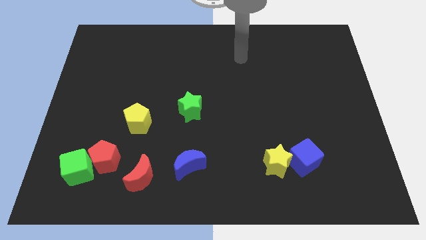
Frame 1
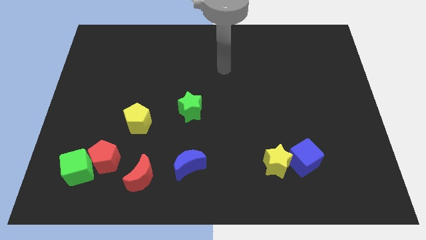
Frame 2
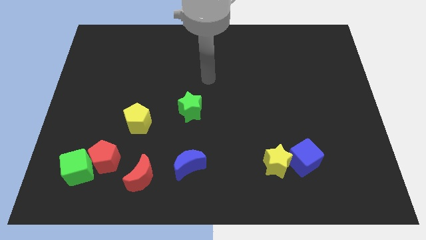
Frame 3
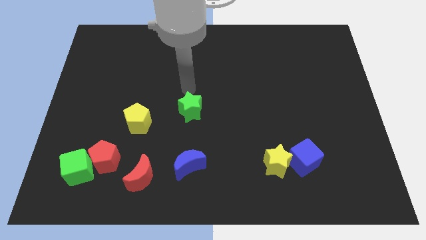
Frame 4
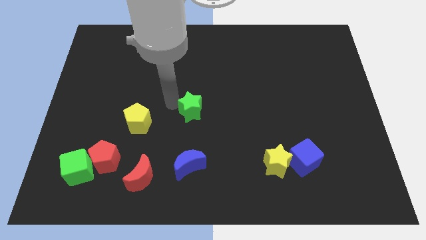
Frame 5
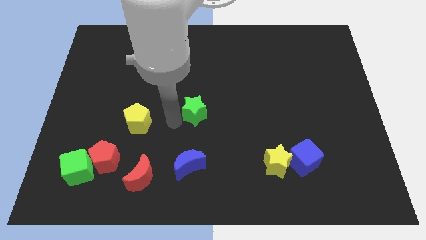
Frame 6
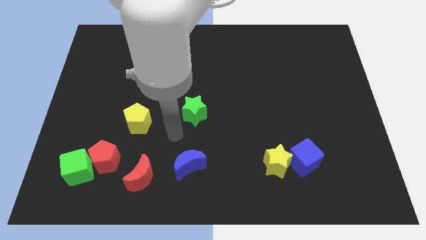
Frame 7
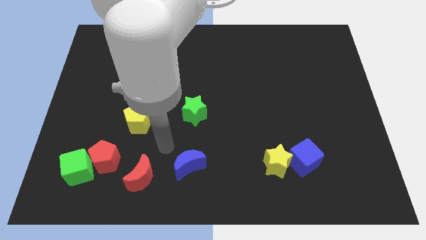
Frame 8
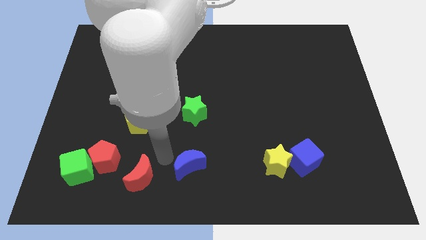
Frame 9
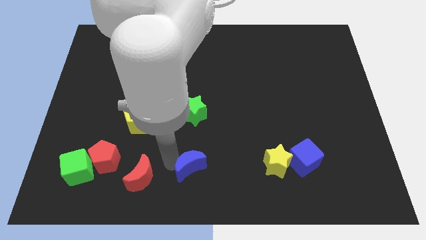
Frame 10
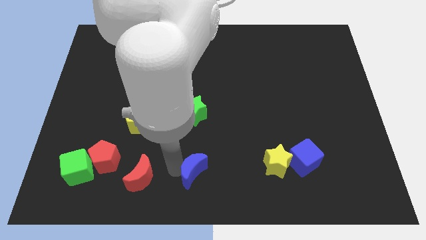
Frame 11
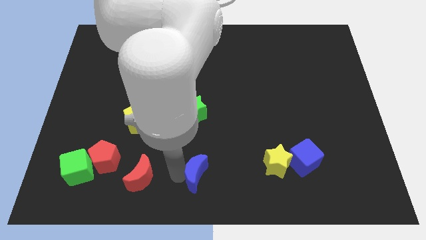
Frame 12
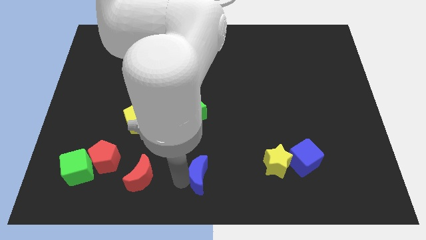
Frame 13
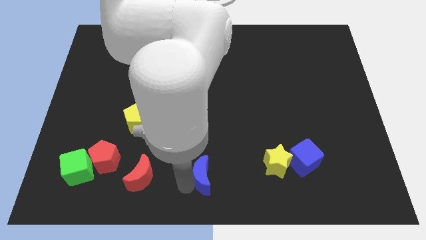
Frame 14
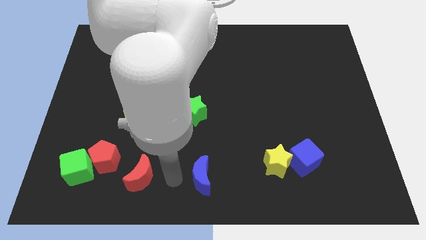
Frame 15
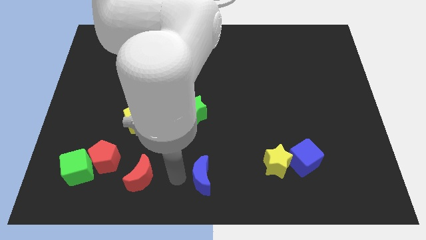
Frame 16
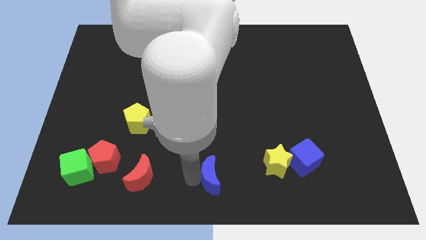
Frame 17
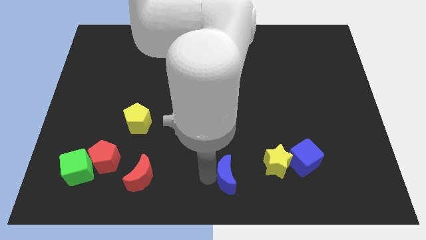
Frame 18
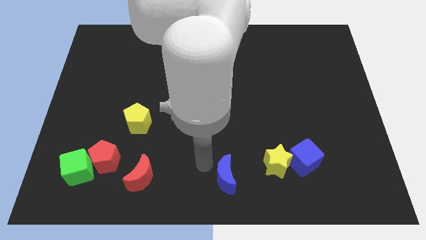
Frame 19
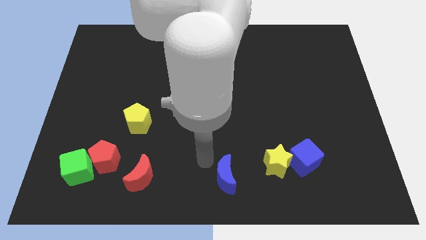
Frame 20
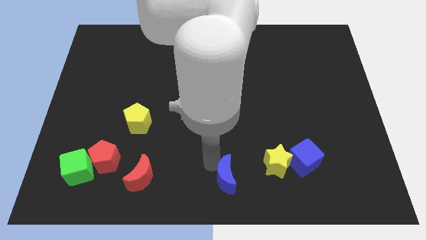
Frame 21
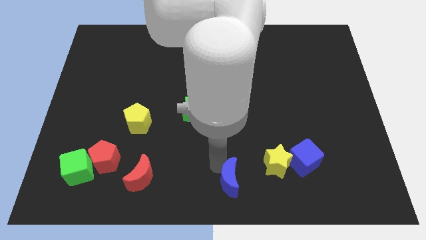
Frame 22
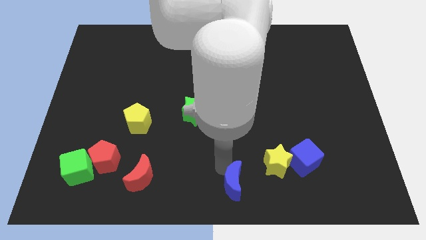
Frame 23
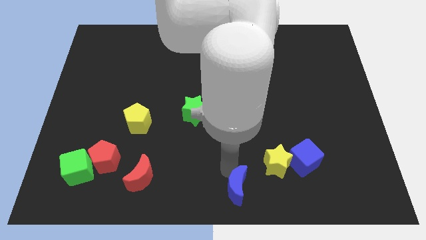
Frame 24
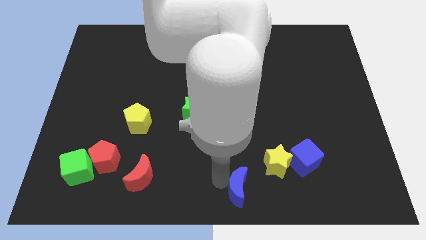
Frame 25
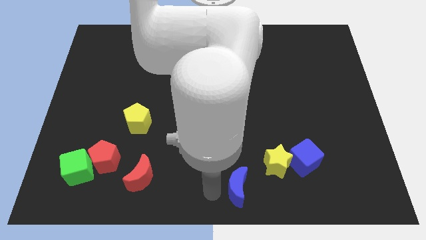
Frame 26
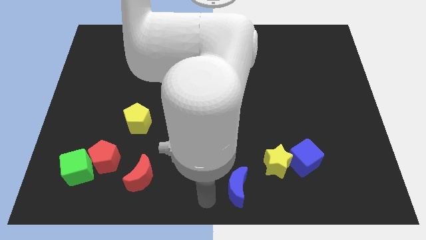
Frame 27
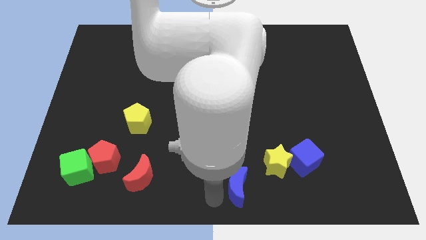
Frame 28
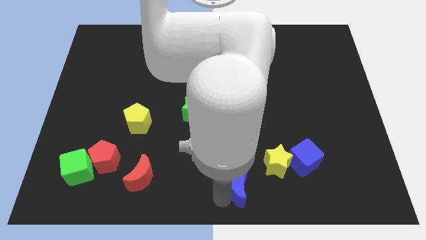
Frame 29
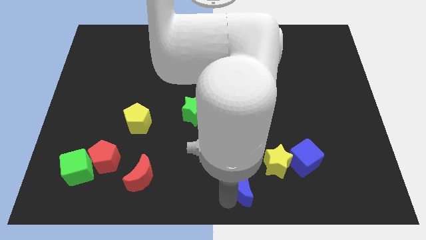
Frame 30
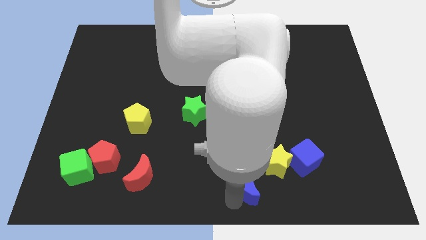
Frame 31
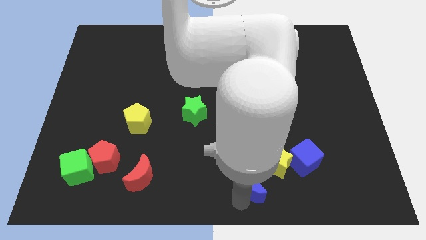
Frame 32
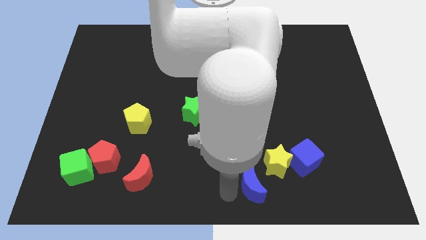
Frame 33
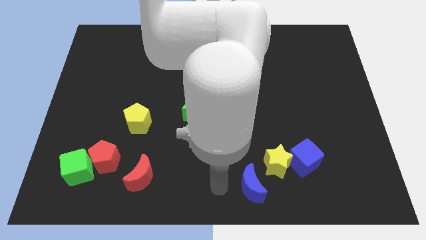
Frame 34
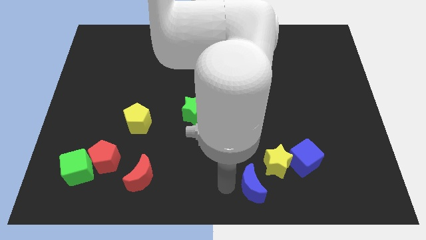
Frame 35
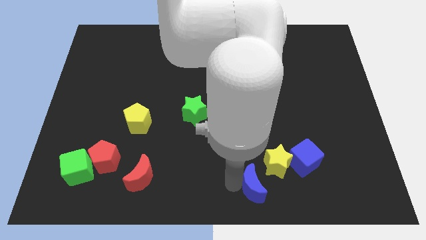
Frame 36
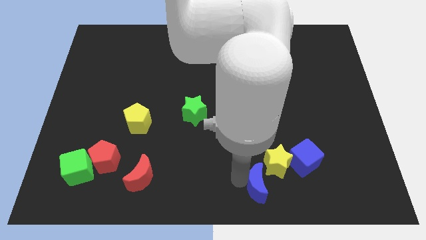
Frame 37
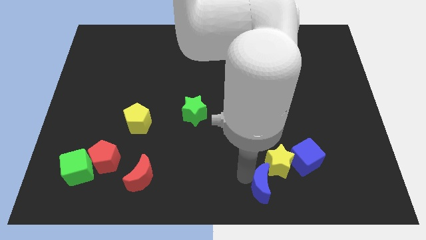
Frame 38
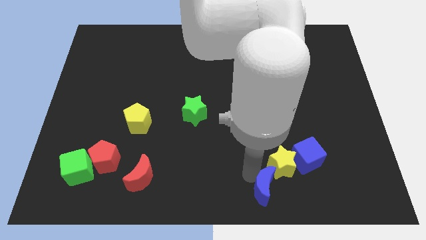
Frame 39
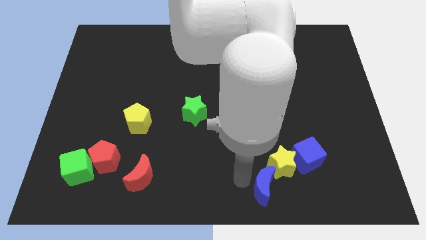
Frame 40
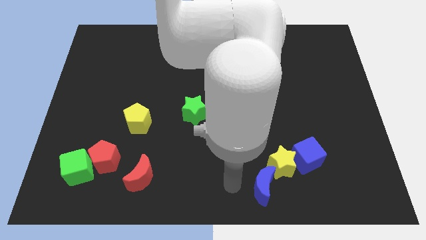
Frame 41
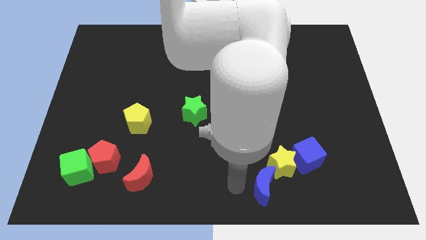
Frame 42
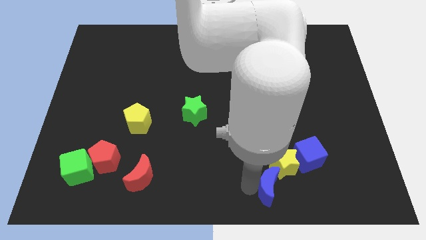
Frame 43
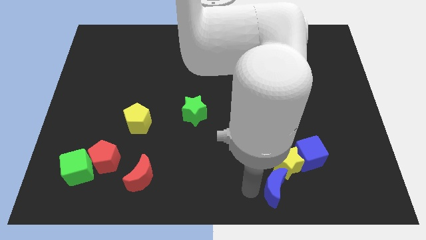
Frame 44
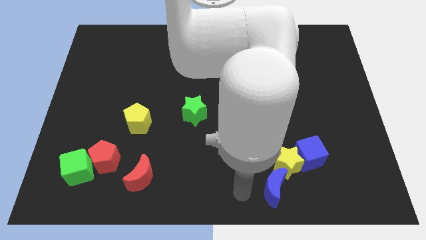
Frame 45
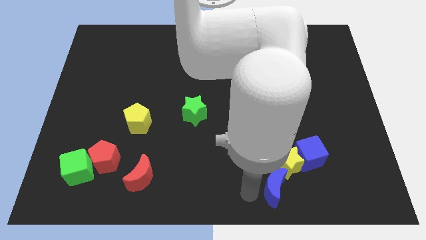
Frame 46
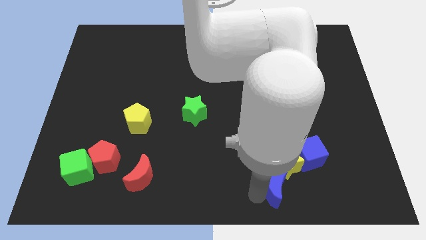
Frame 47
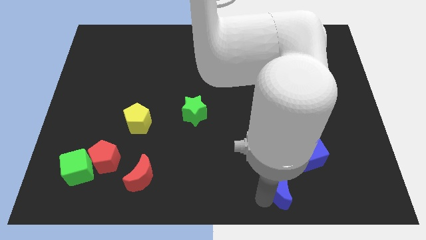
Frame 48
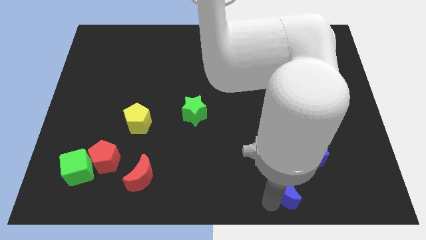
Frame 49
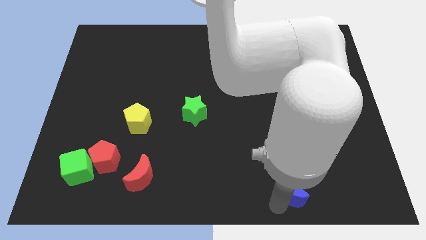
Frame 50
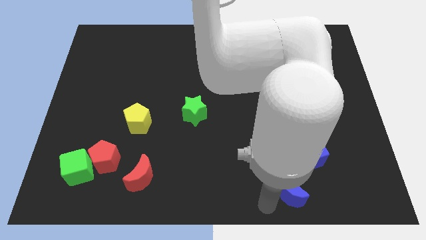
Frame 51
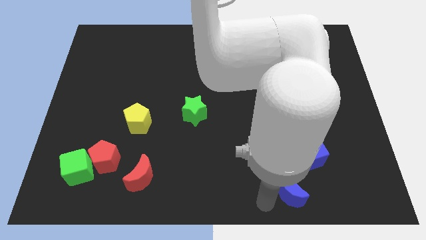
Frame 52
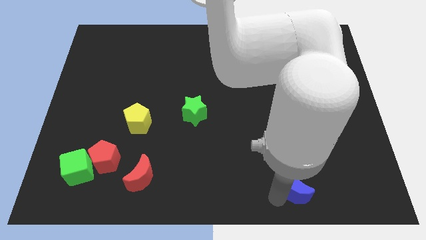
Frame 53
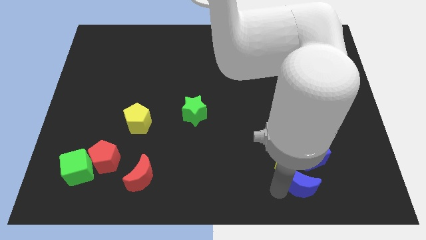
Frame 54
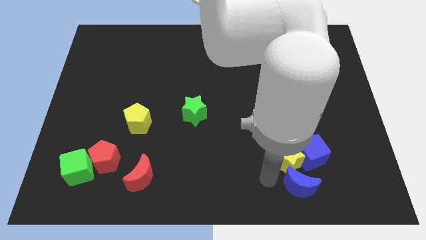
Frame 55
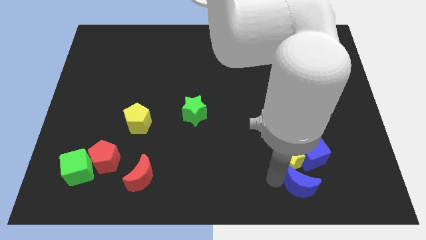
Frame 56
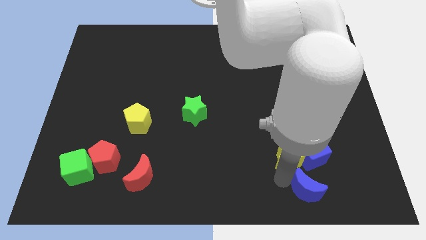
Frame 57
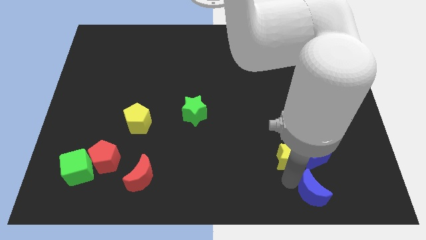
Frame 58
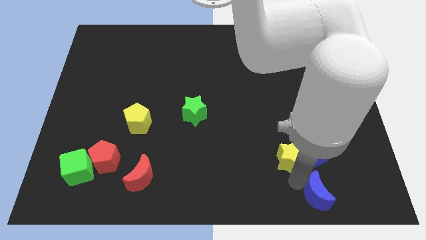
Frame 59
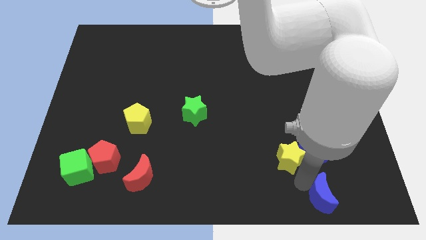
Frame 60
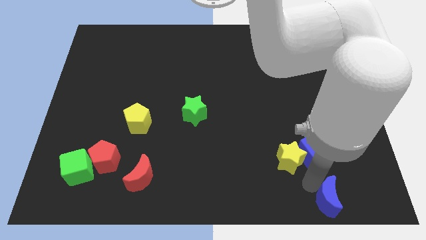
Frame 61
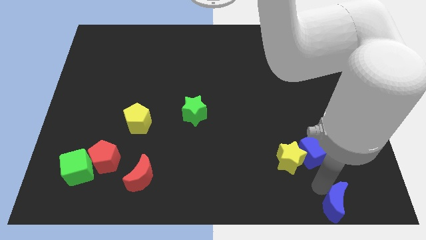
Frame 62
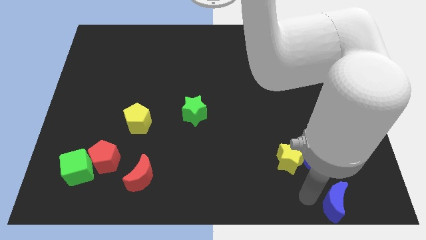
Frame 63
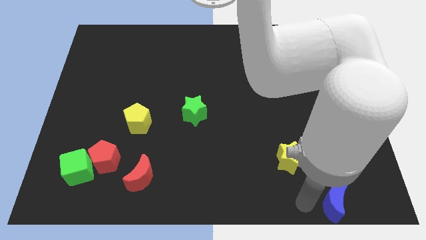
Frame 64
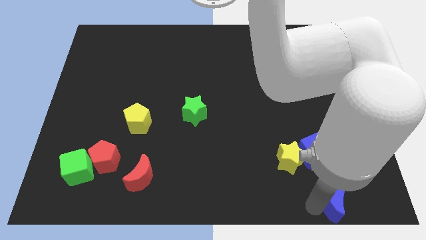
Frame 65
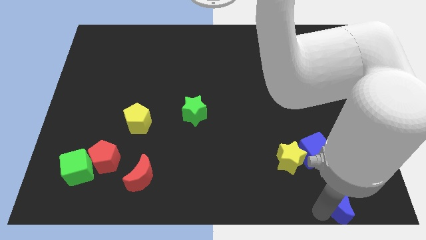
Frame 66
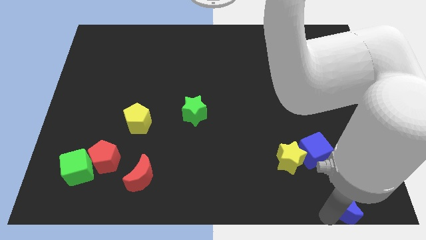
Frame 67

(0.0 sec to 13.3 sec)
slide the blue moon to the lower right corner
